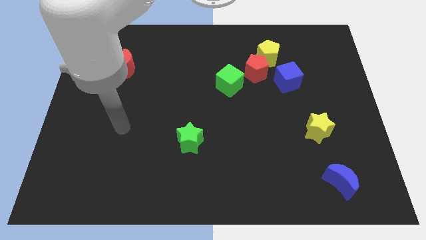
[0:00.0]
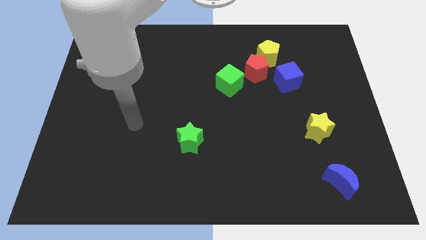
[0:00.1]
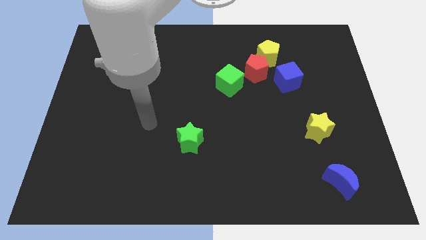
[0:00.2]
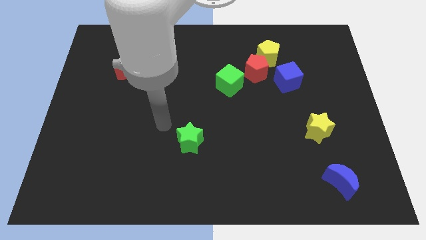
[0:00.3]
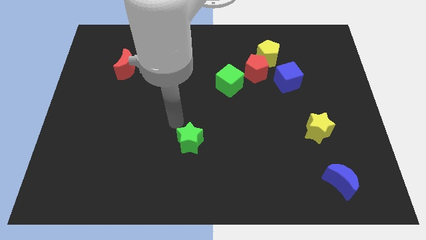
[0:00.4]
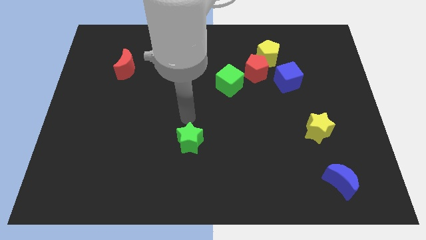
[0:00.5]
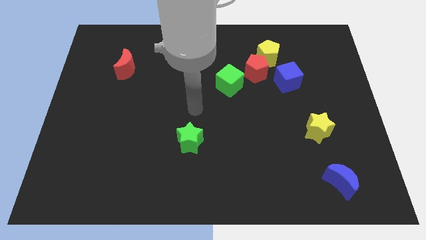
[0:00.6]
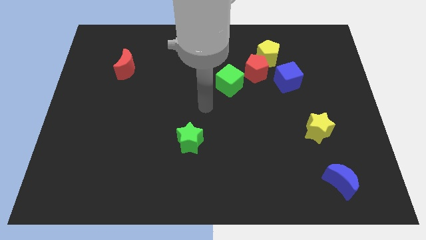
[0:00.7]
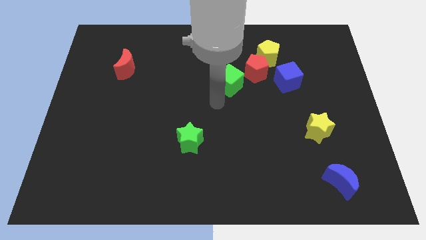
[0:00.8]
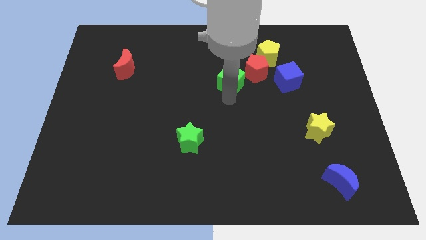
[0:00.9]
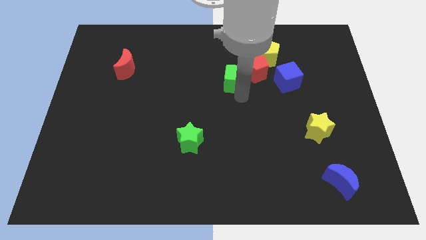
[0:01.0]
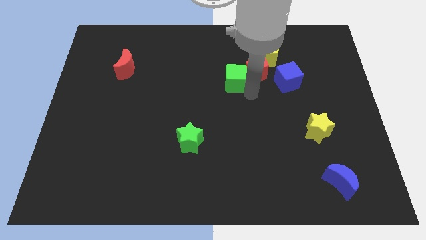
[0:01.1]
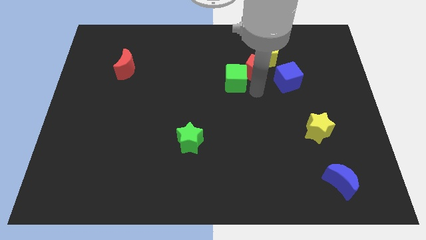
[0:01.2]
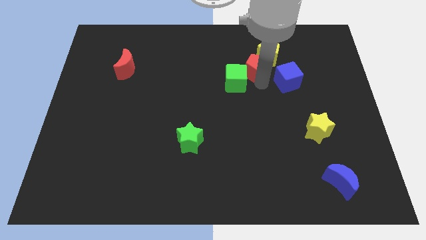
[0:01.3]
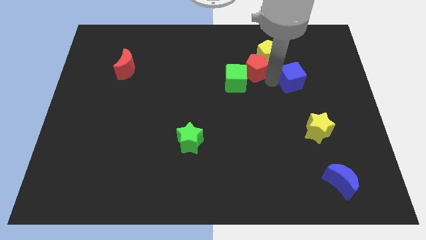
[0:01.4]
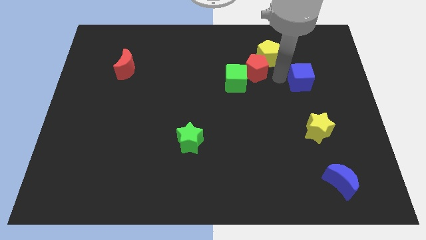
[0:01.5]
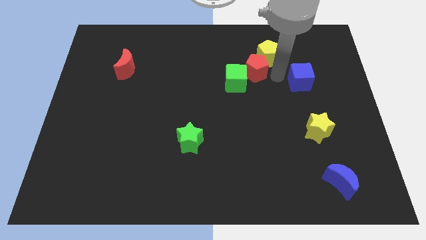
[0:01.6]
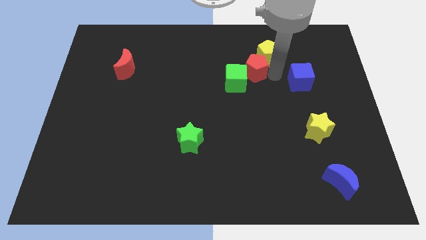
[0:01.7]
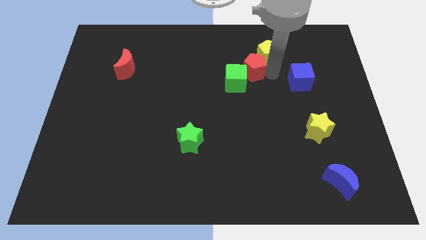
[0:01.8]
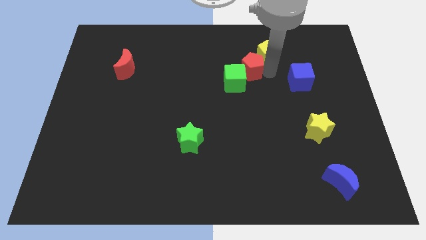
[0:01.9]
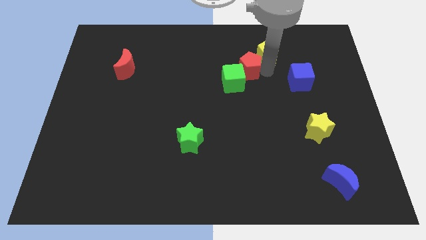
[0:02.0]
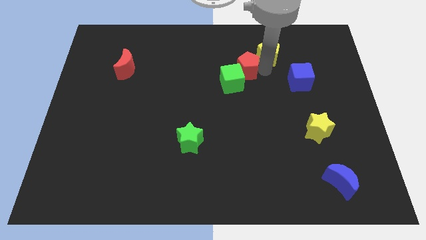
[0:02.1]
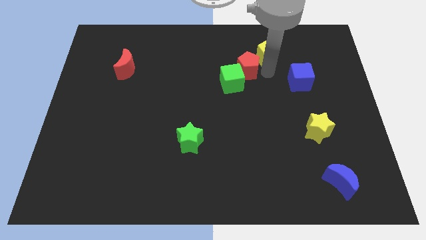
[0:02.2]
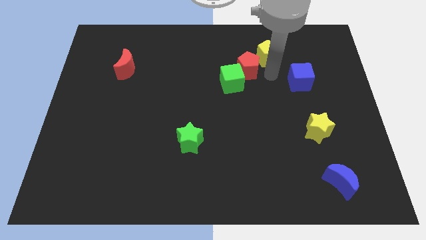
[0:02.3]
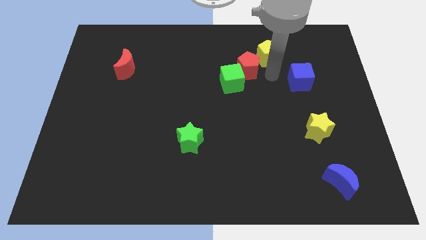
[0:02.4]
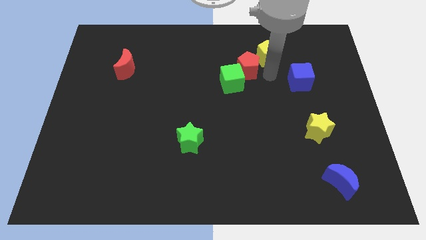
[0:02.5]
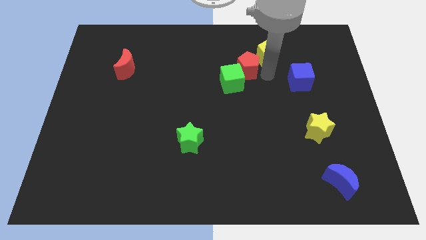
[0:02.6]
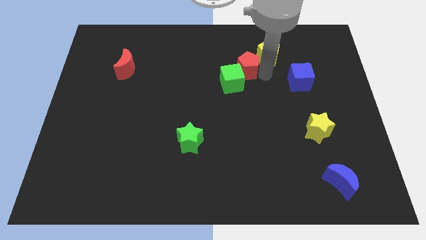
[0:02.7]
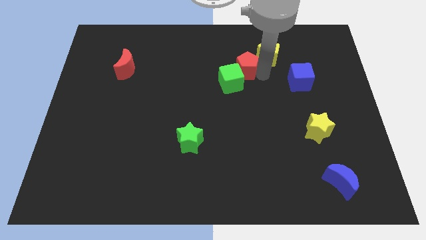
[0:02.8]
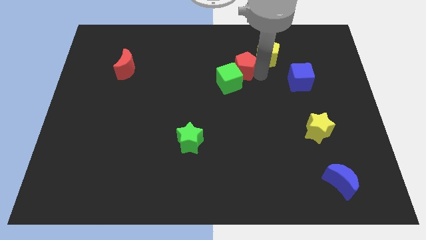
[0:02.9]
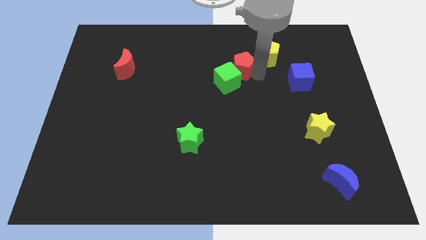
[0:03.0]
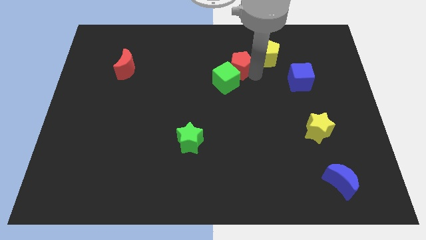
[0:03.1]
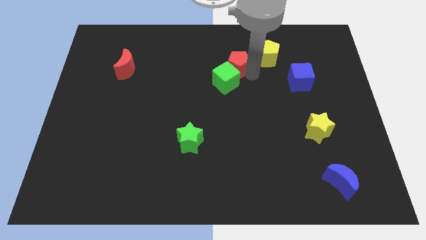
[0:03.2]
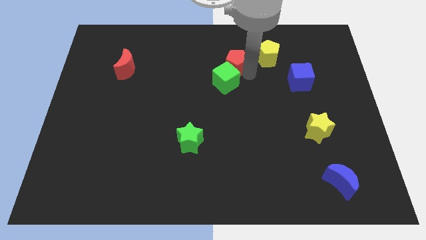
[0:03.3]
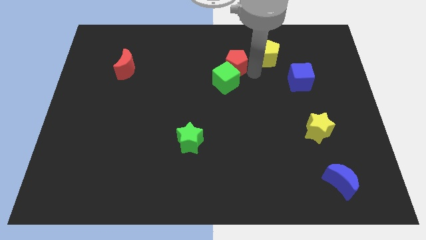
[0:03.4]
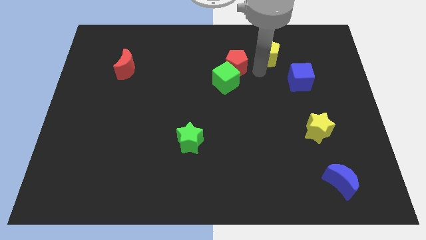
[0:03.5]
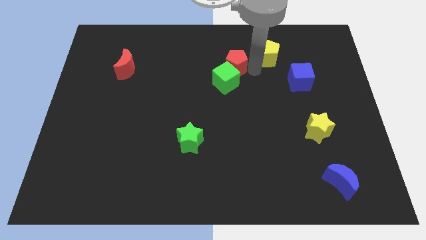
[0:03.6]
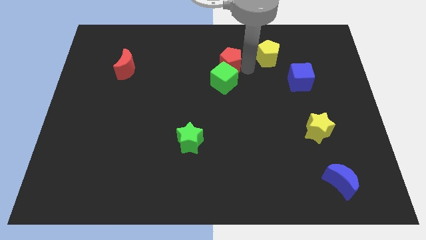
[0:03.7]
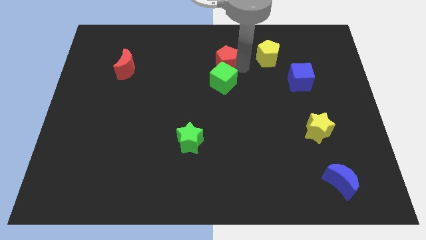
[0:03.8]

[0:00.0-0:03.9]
pull the red pentagon apart from the group

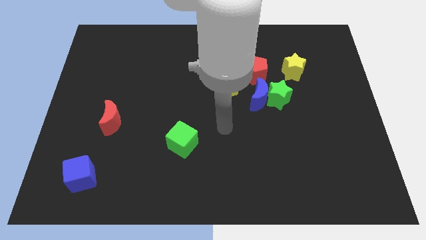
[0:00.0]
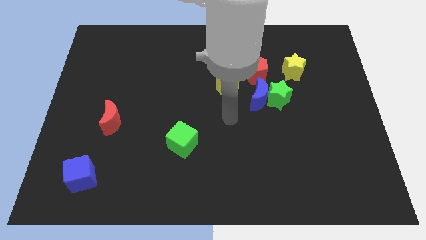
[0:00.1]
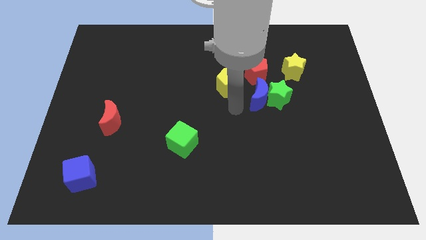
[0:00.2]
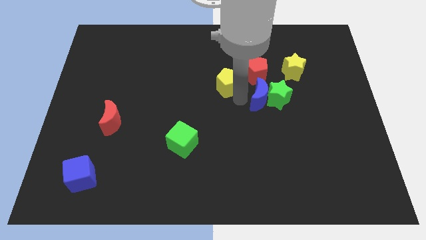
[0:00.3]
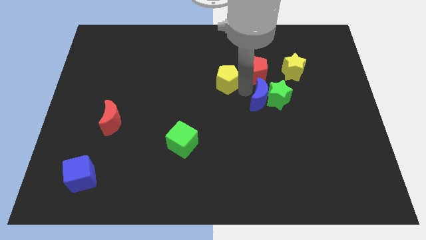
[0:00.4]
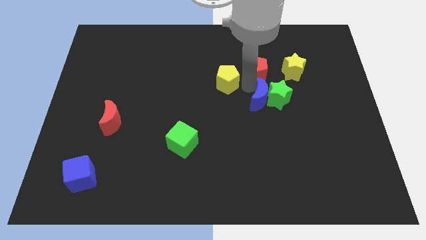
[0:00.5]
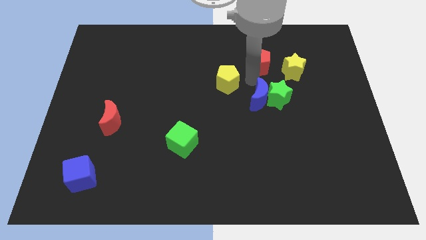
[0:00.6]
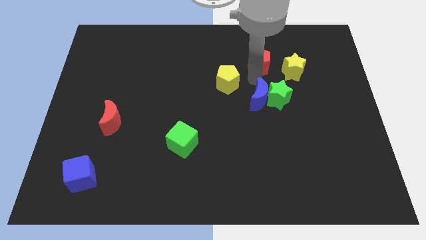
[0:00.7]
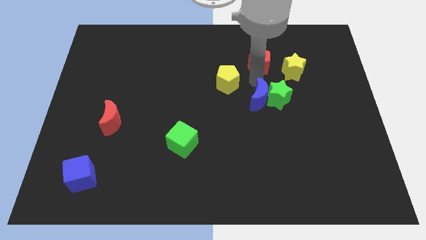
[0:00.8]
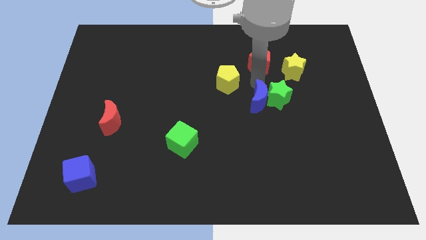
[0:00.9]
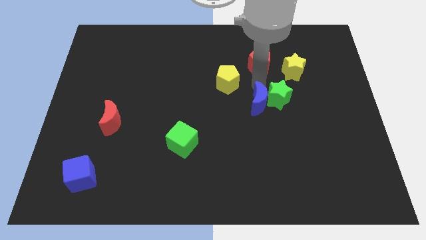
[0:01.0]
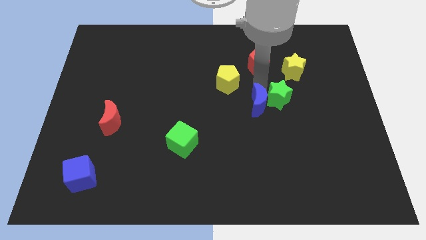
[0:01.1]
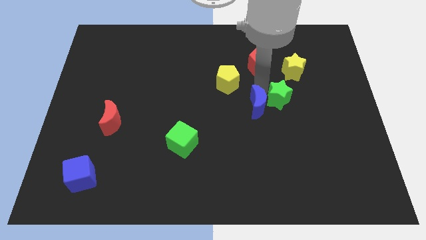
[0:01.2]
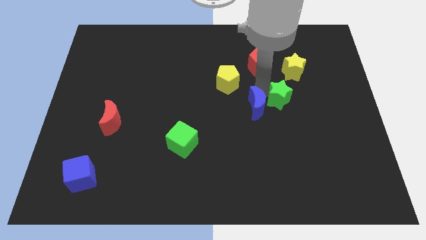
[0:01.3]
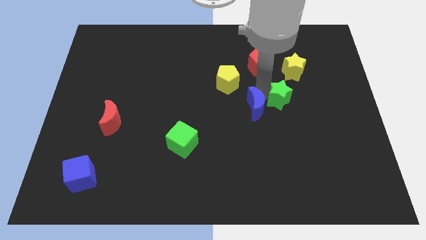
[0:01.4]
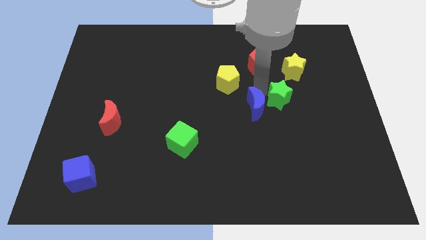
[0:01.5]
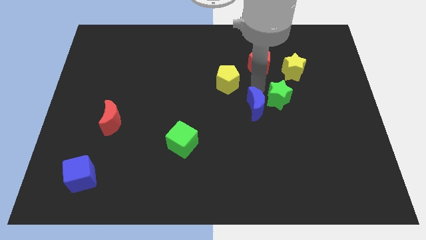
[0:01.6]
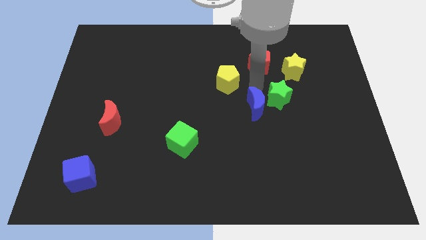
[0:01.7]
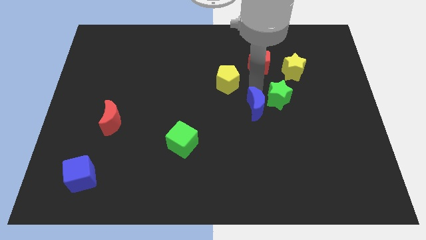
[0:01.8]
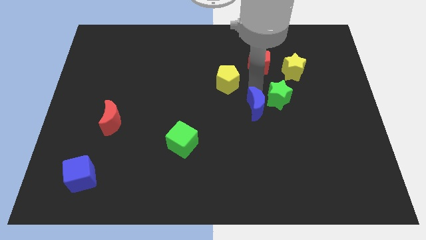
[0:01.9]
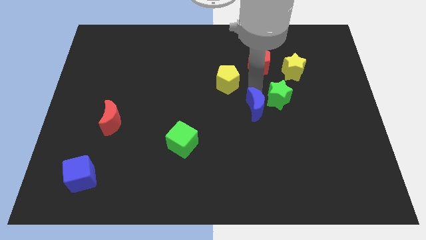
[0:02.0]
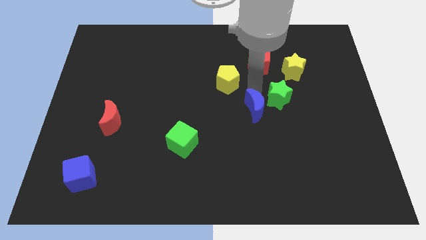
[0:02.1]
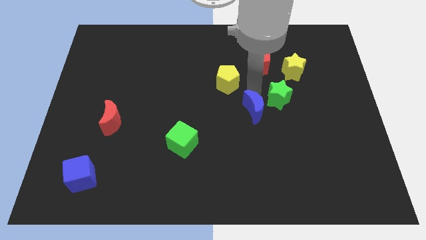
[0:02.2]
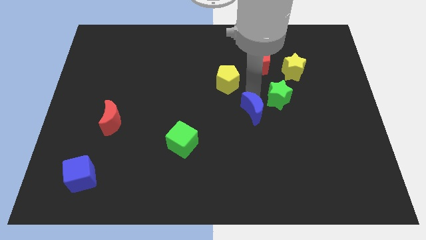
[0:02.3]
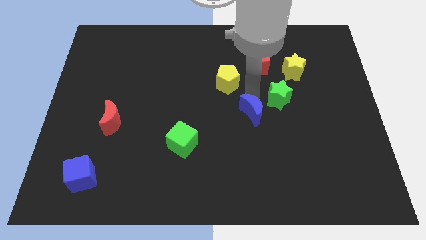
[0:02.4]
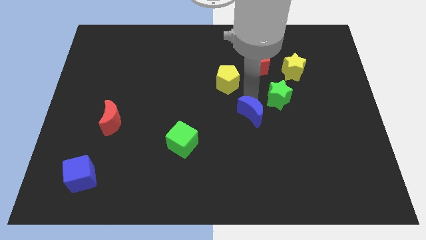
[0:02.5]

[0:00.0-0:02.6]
pull the blue moon apart from the group of blocks

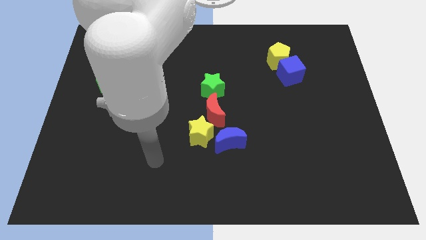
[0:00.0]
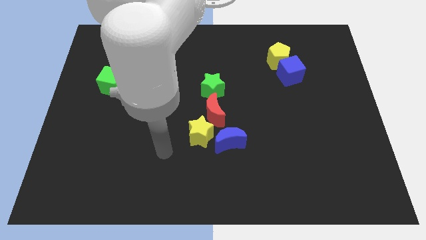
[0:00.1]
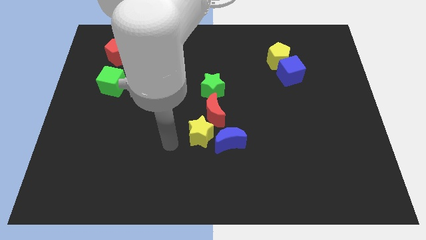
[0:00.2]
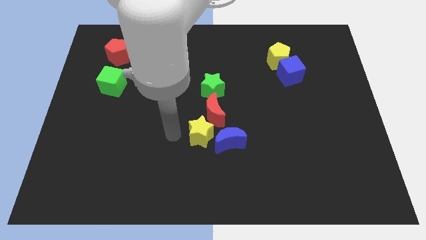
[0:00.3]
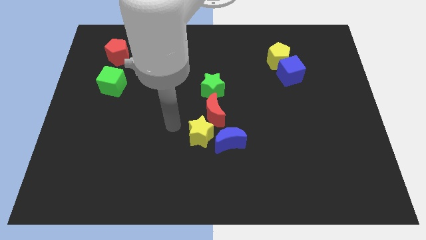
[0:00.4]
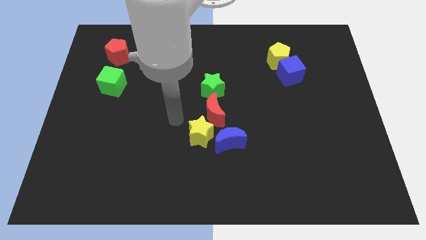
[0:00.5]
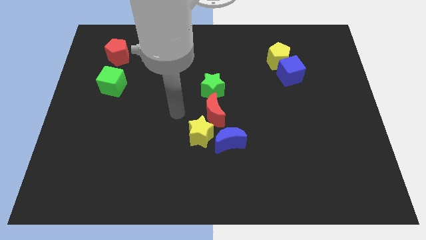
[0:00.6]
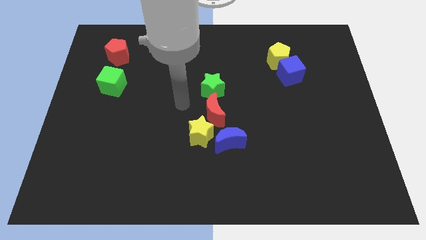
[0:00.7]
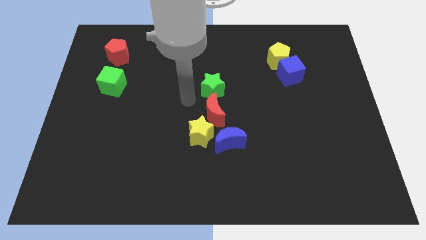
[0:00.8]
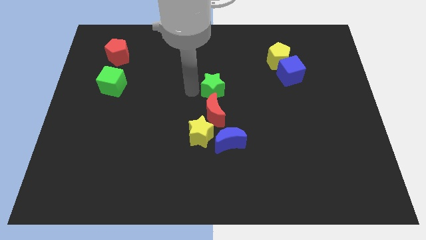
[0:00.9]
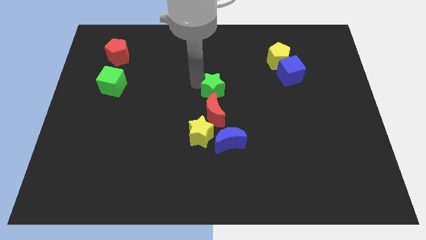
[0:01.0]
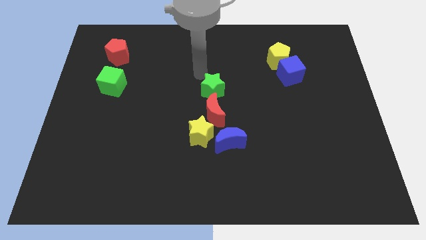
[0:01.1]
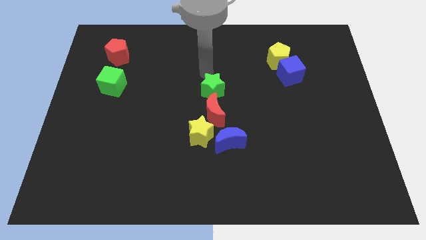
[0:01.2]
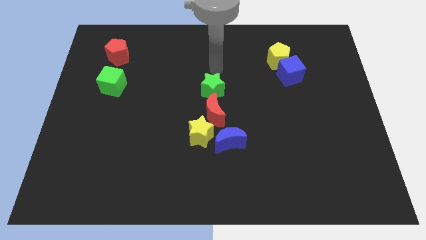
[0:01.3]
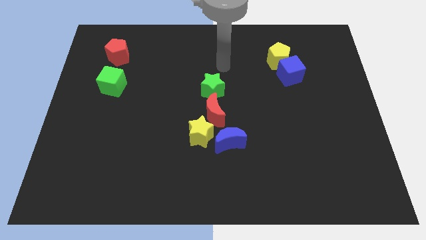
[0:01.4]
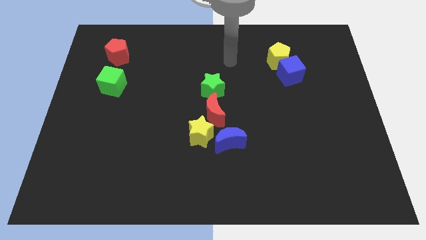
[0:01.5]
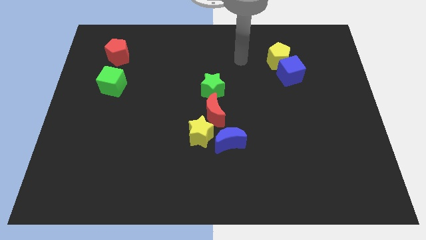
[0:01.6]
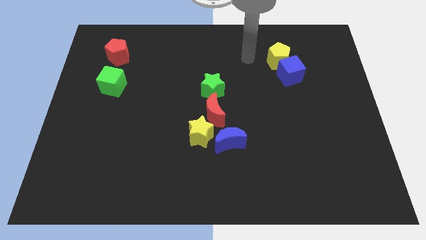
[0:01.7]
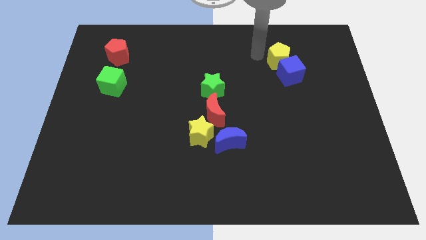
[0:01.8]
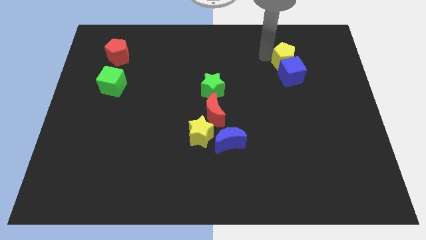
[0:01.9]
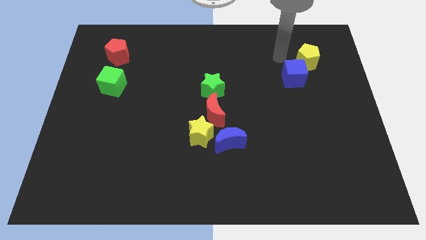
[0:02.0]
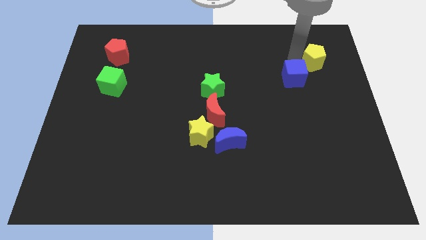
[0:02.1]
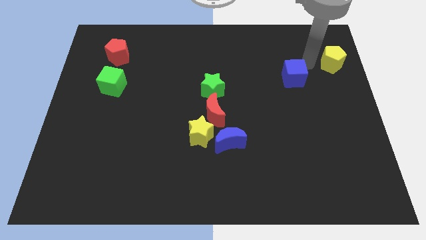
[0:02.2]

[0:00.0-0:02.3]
pull the blue cube apart from the yellow pentagon

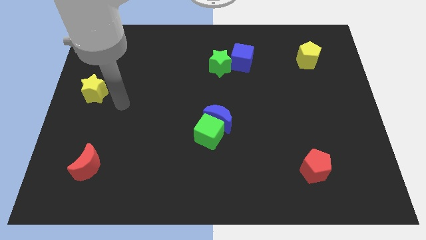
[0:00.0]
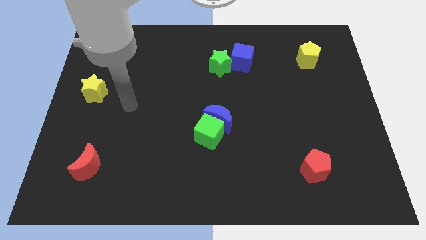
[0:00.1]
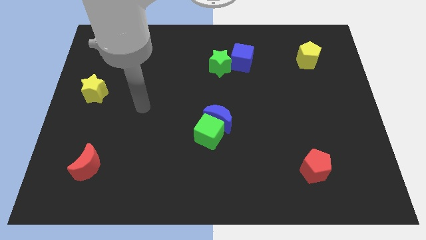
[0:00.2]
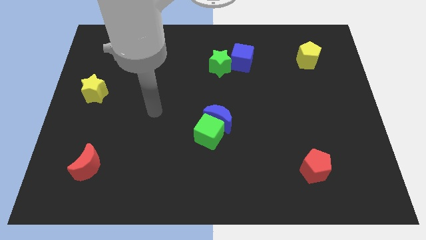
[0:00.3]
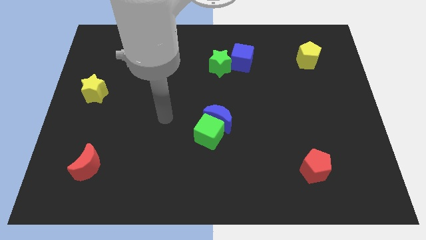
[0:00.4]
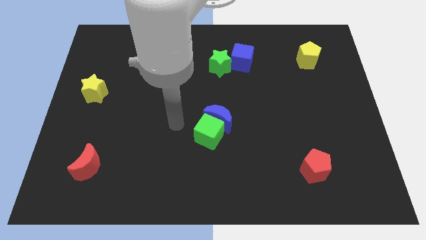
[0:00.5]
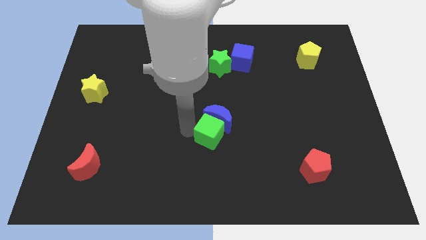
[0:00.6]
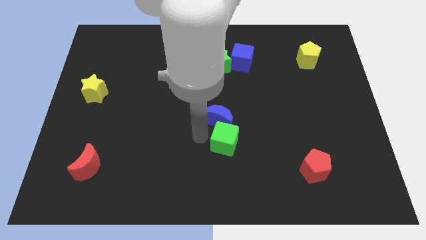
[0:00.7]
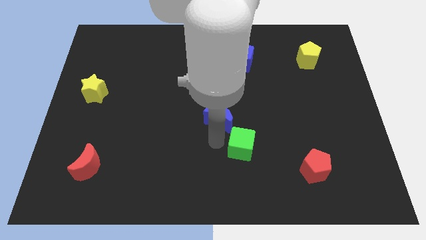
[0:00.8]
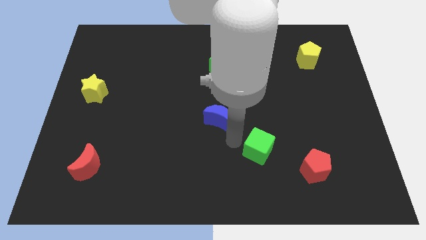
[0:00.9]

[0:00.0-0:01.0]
separate the blue moon from the green cube
